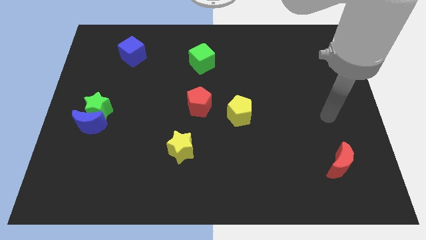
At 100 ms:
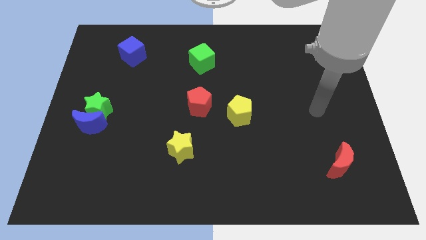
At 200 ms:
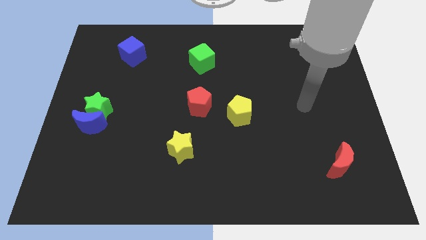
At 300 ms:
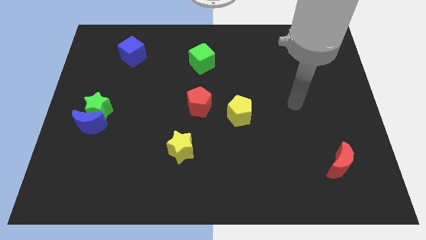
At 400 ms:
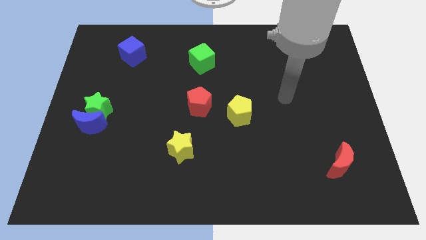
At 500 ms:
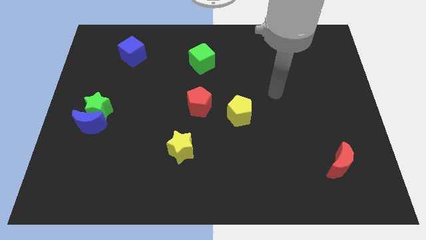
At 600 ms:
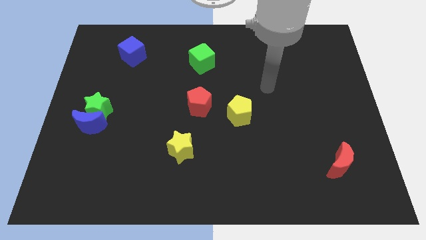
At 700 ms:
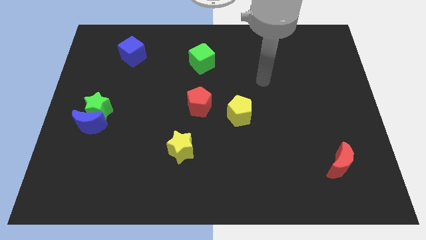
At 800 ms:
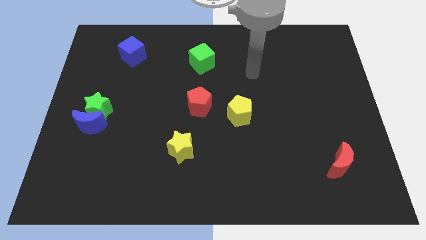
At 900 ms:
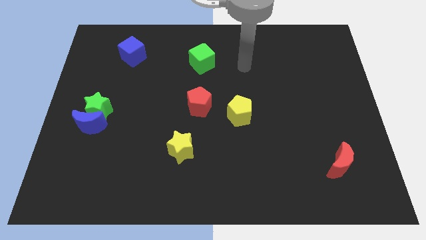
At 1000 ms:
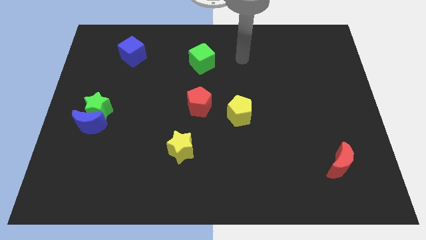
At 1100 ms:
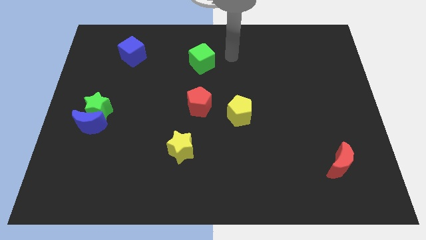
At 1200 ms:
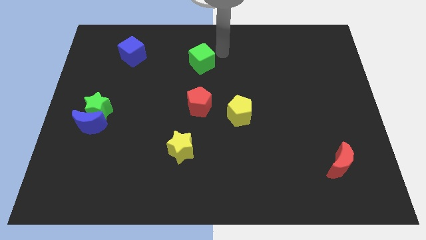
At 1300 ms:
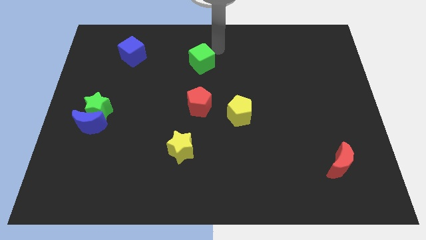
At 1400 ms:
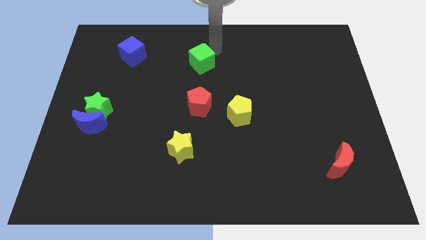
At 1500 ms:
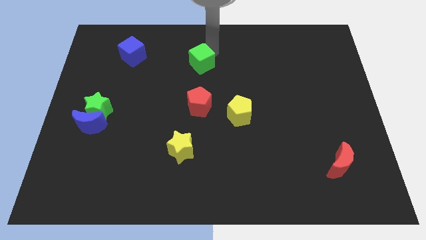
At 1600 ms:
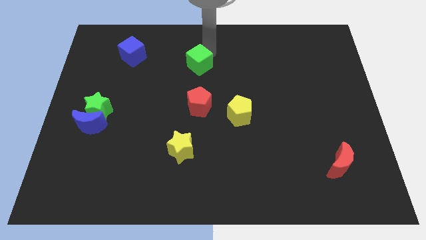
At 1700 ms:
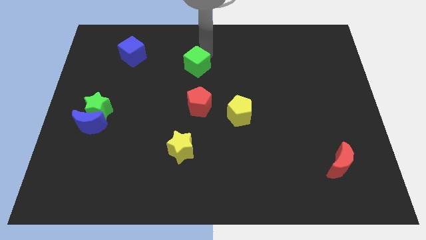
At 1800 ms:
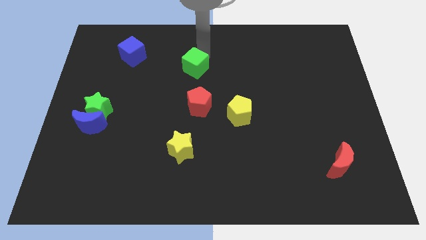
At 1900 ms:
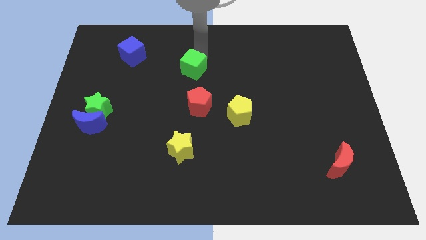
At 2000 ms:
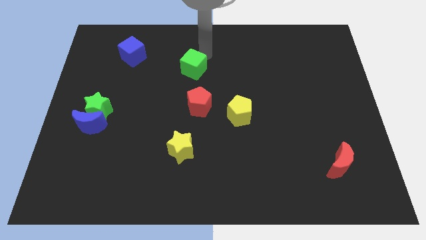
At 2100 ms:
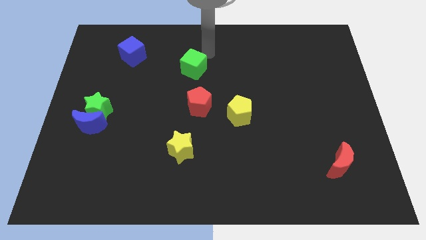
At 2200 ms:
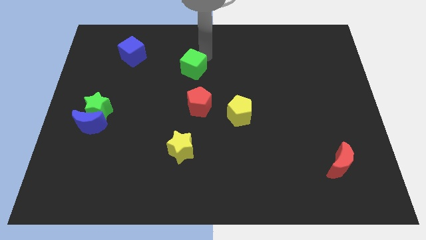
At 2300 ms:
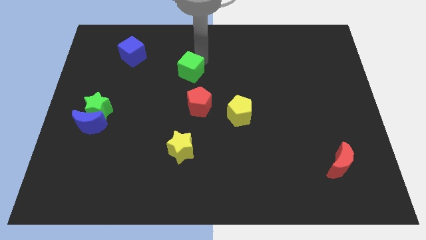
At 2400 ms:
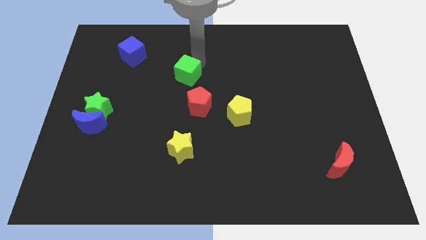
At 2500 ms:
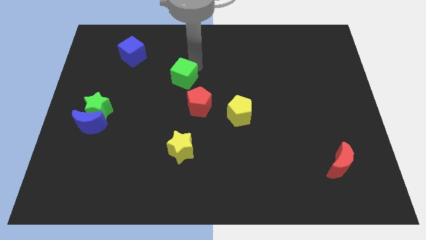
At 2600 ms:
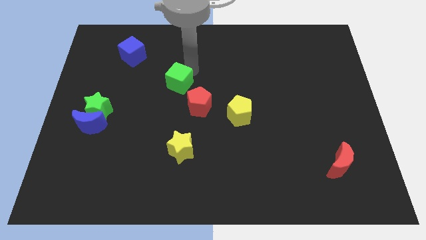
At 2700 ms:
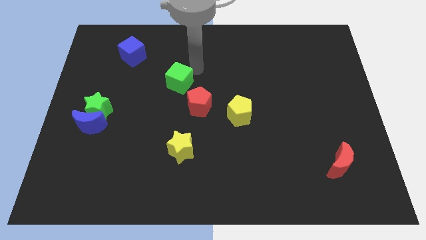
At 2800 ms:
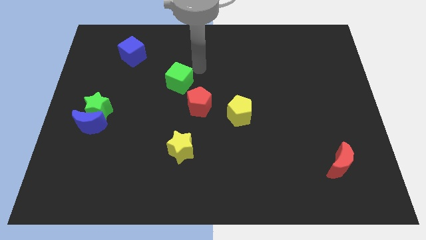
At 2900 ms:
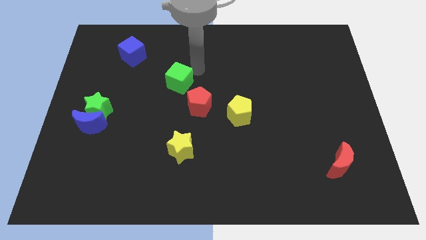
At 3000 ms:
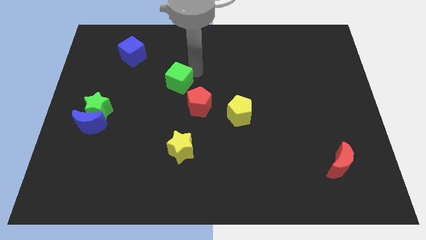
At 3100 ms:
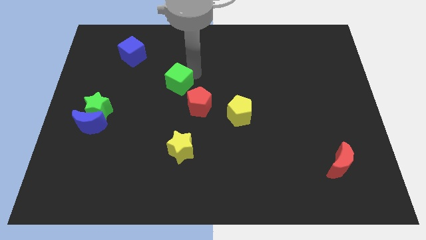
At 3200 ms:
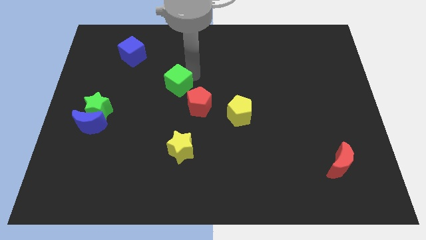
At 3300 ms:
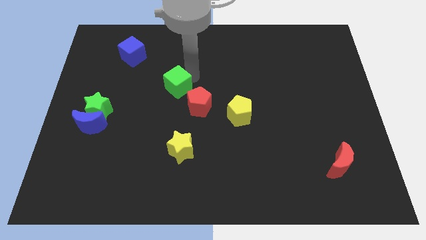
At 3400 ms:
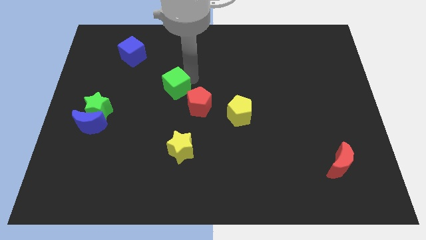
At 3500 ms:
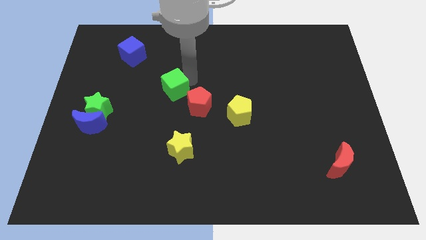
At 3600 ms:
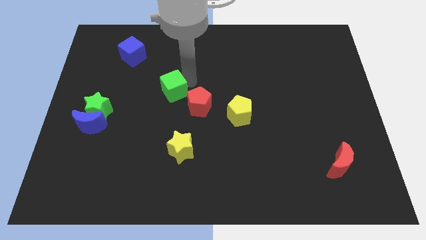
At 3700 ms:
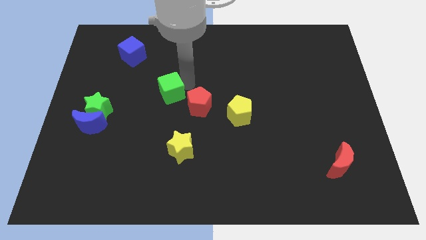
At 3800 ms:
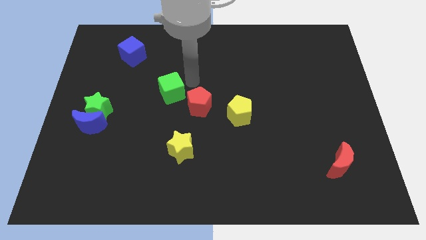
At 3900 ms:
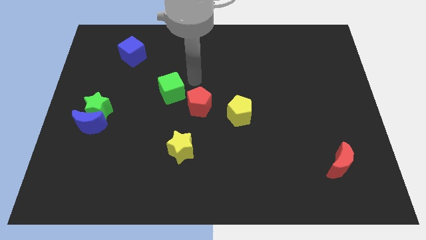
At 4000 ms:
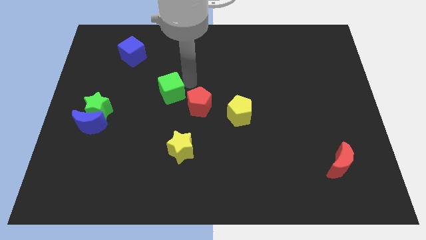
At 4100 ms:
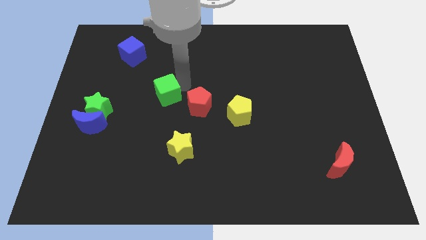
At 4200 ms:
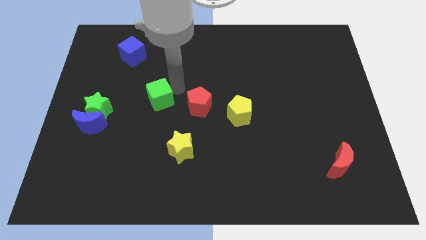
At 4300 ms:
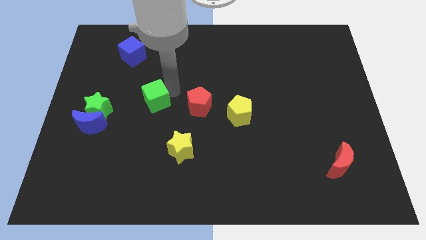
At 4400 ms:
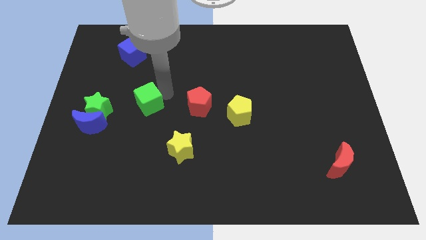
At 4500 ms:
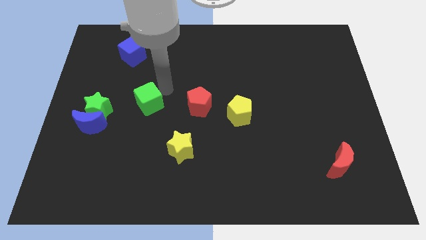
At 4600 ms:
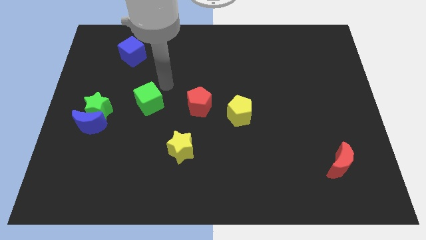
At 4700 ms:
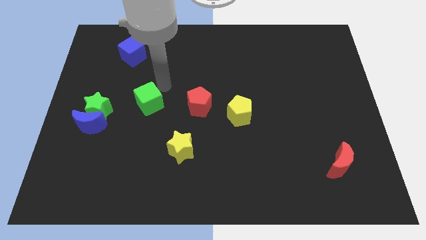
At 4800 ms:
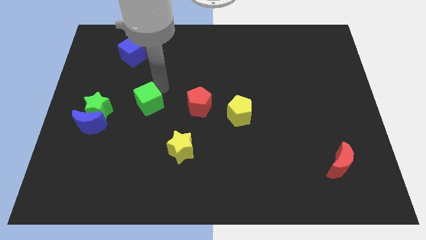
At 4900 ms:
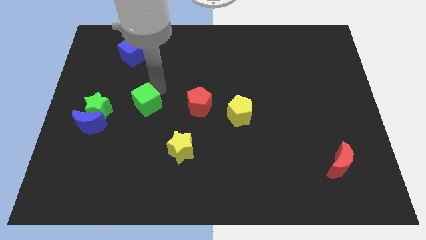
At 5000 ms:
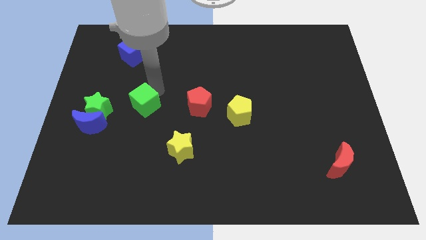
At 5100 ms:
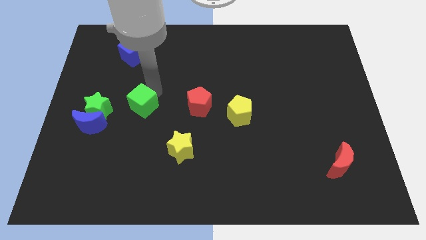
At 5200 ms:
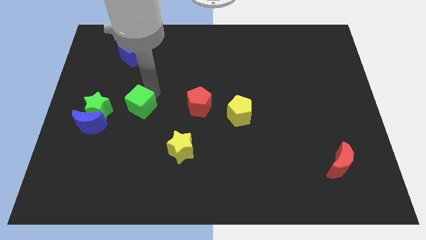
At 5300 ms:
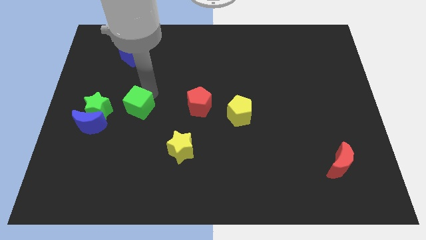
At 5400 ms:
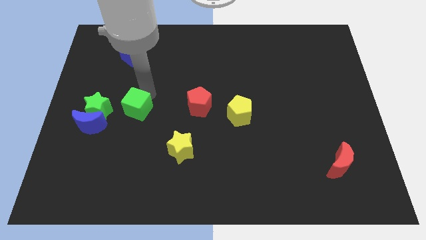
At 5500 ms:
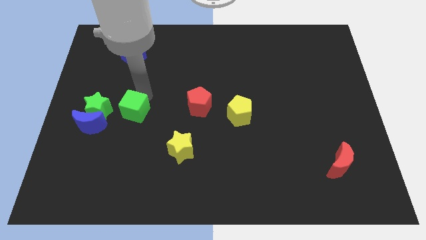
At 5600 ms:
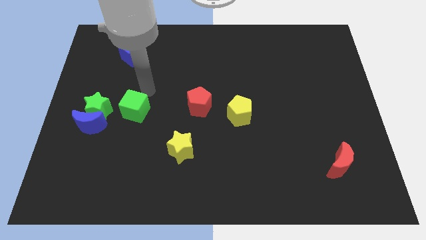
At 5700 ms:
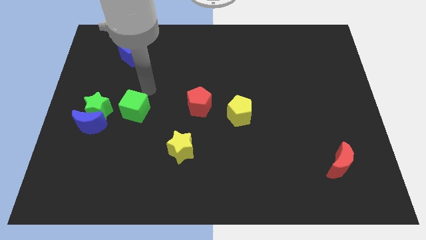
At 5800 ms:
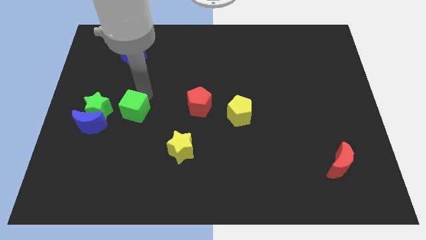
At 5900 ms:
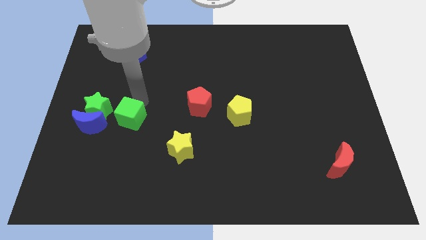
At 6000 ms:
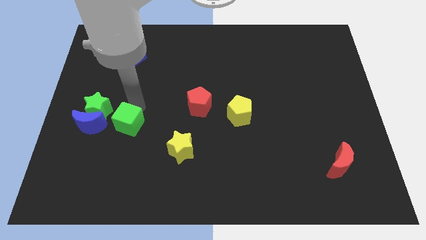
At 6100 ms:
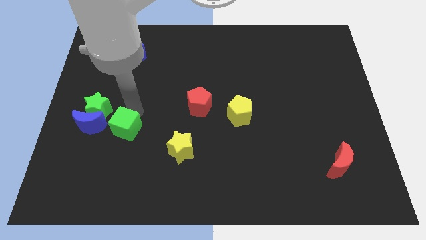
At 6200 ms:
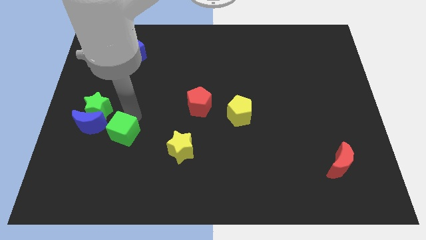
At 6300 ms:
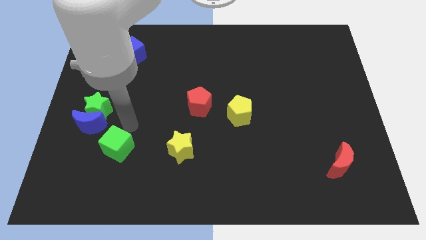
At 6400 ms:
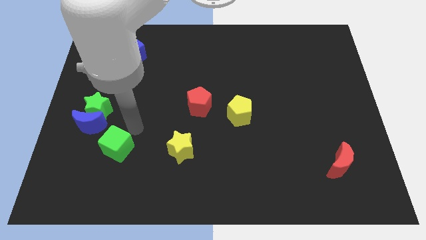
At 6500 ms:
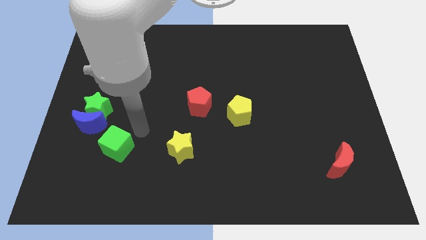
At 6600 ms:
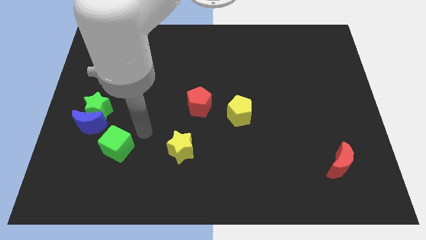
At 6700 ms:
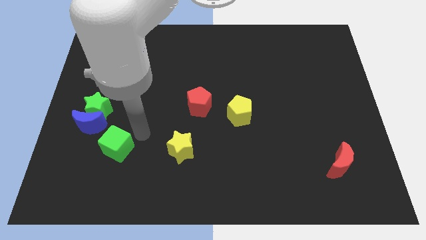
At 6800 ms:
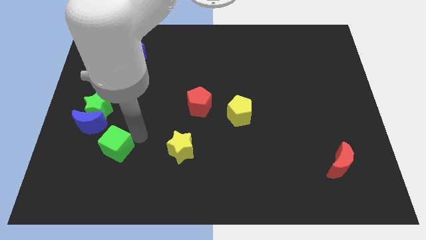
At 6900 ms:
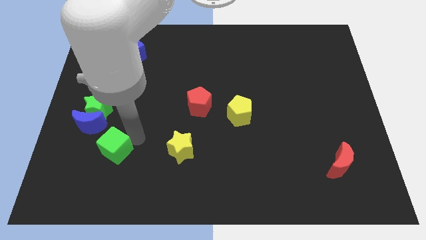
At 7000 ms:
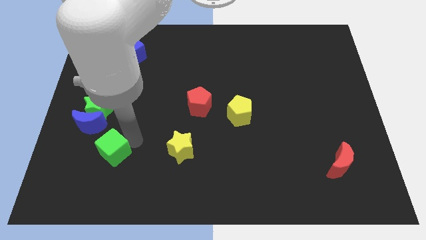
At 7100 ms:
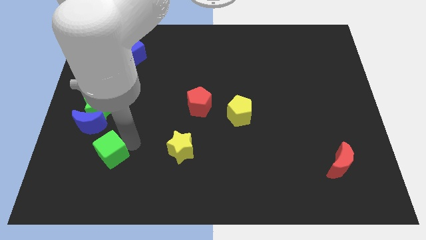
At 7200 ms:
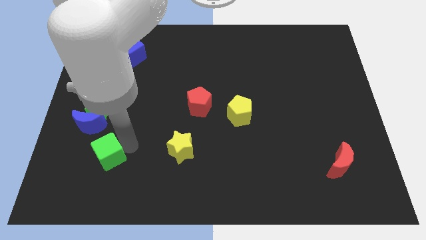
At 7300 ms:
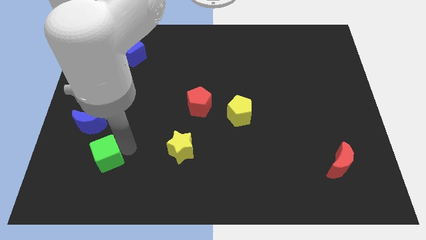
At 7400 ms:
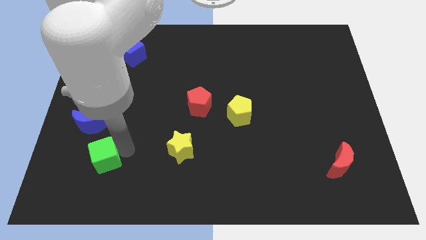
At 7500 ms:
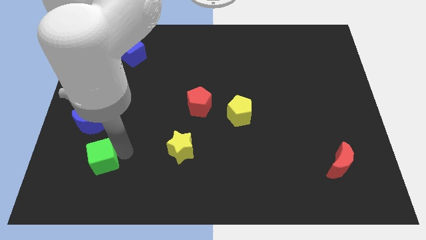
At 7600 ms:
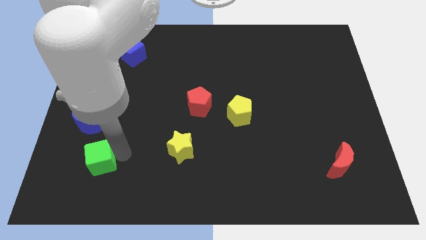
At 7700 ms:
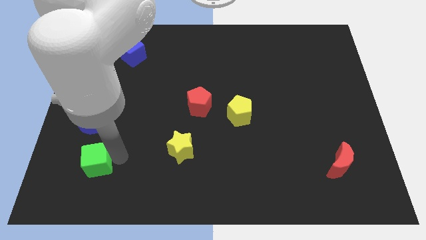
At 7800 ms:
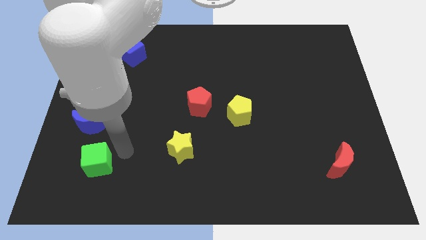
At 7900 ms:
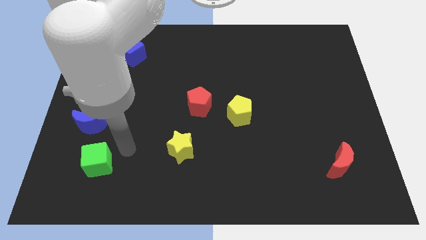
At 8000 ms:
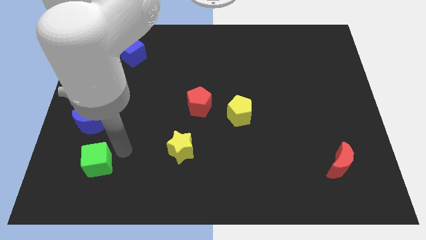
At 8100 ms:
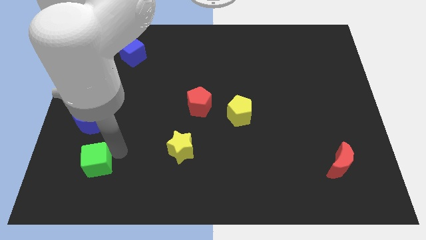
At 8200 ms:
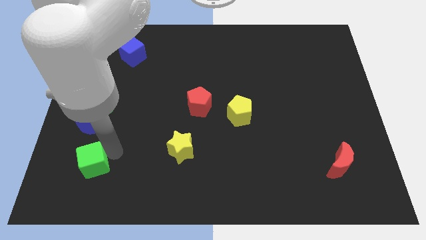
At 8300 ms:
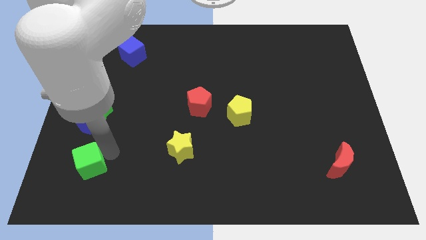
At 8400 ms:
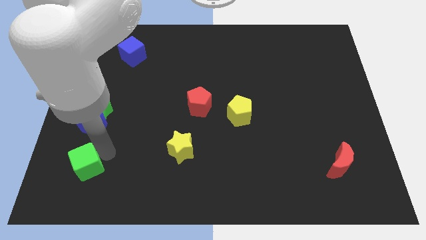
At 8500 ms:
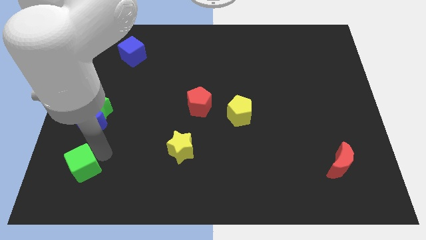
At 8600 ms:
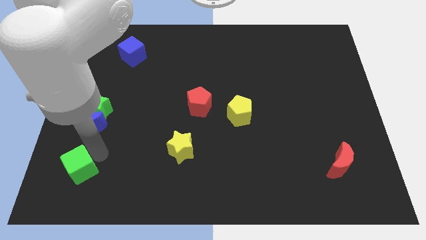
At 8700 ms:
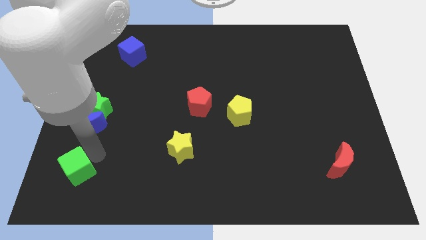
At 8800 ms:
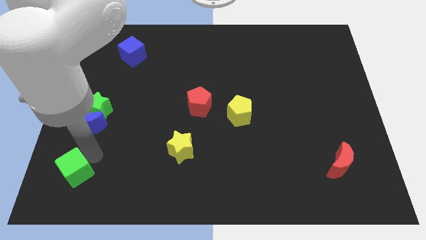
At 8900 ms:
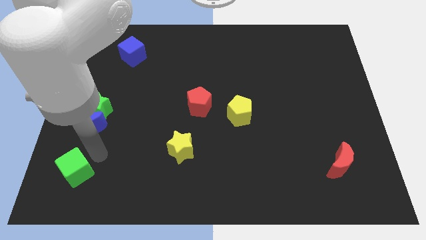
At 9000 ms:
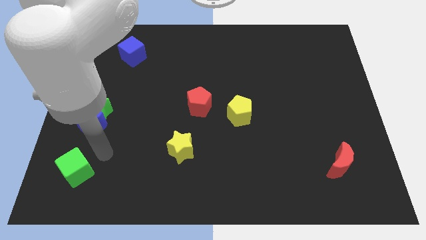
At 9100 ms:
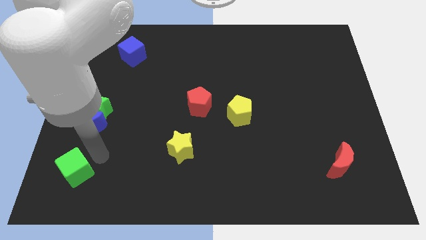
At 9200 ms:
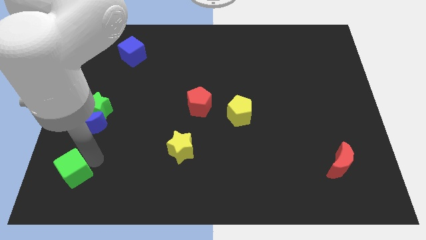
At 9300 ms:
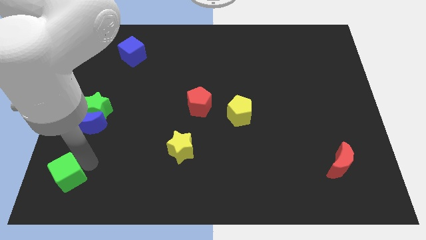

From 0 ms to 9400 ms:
move the green cube to the bottom left corner
